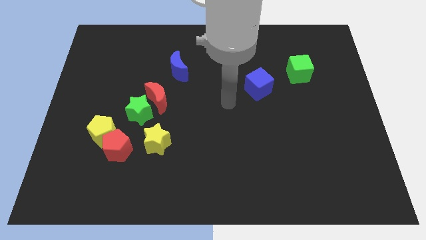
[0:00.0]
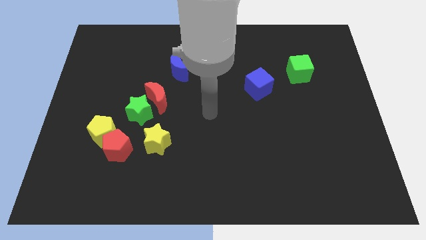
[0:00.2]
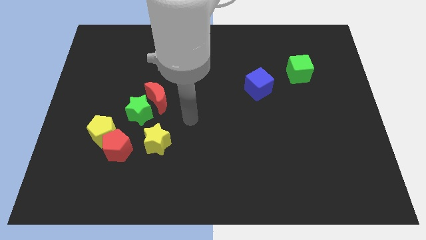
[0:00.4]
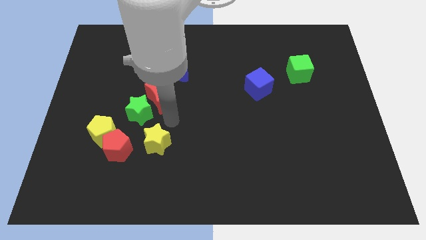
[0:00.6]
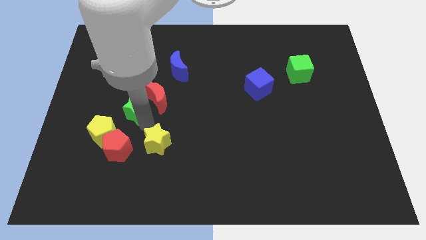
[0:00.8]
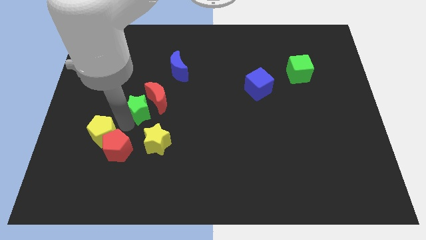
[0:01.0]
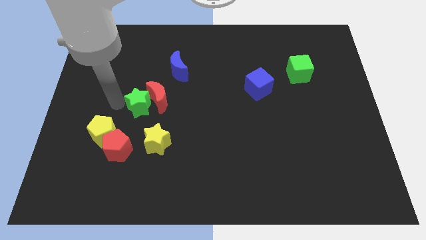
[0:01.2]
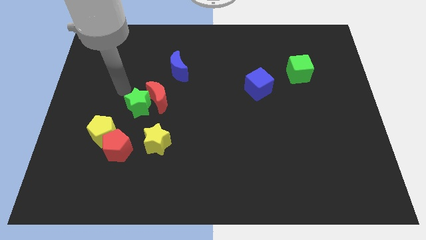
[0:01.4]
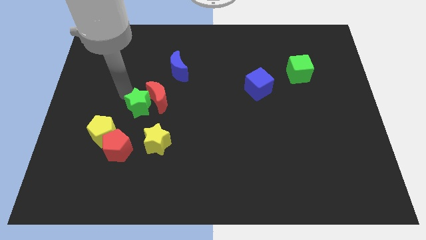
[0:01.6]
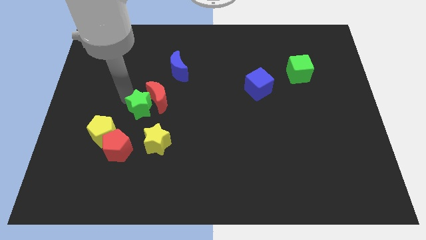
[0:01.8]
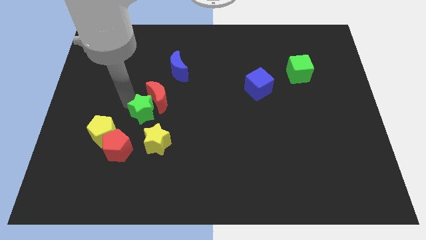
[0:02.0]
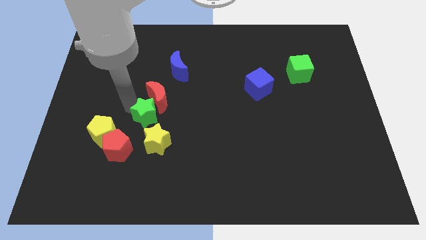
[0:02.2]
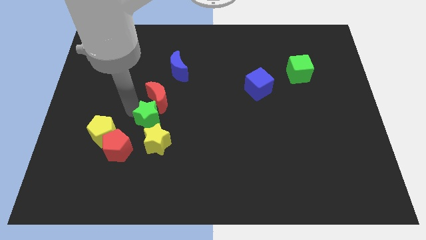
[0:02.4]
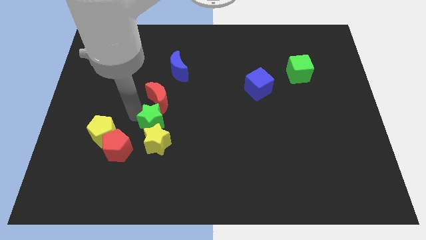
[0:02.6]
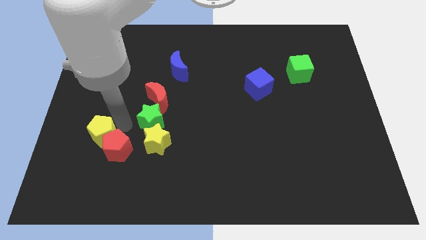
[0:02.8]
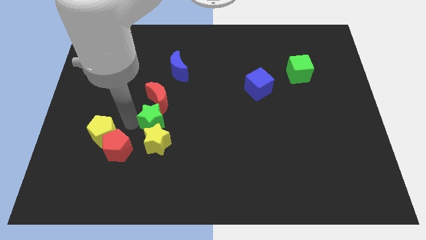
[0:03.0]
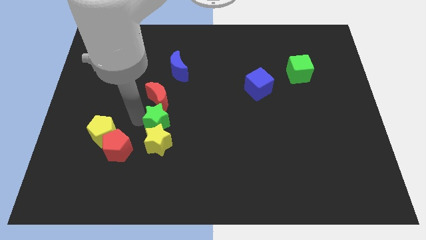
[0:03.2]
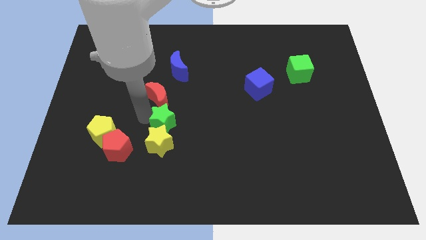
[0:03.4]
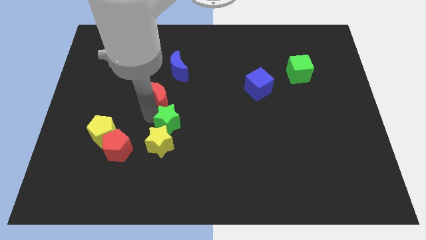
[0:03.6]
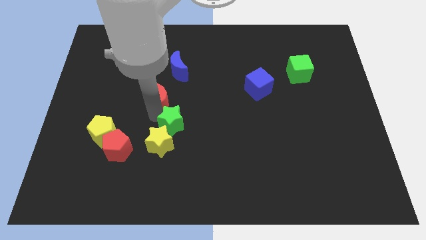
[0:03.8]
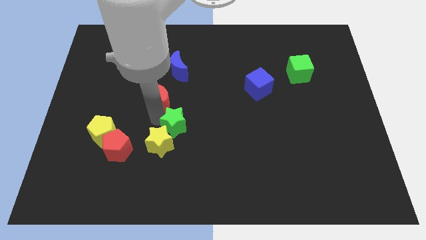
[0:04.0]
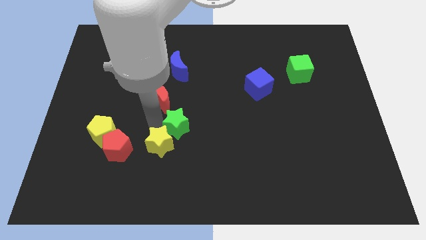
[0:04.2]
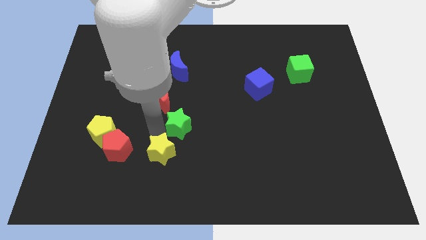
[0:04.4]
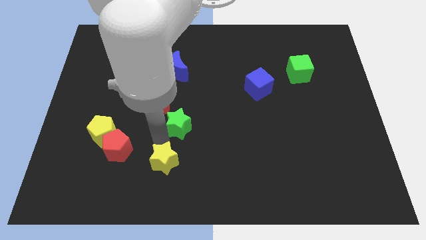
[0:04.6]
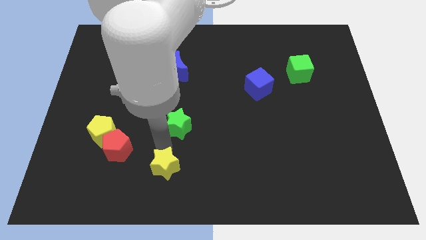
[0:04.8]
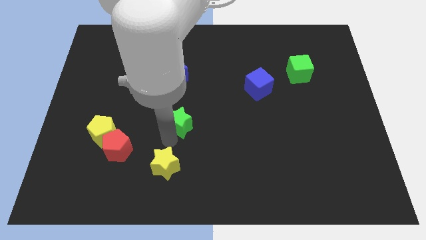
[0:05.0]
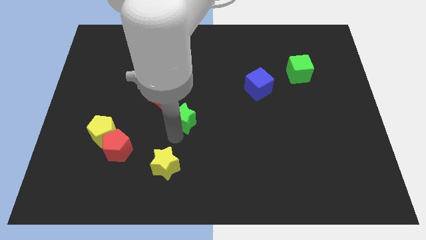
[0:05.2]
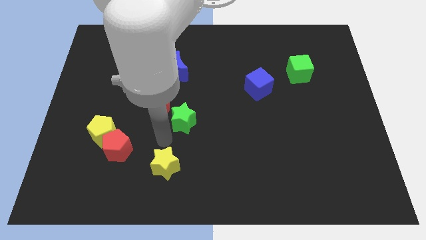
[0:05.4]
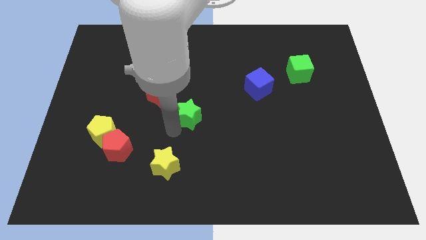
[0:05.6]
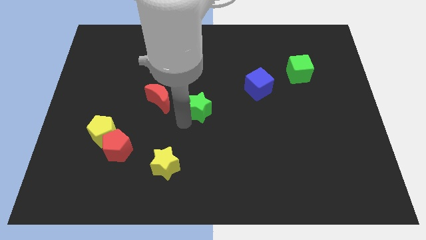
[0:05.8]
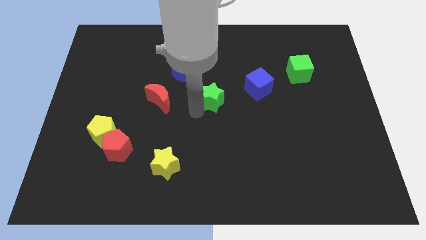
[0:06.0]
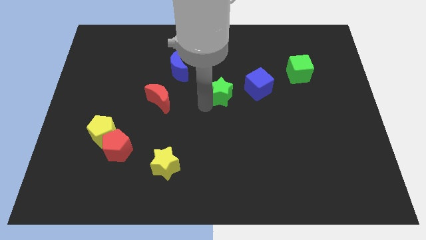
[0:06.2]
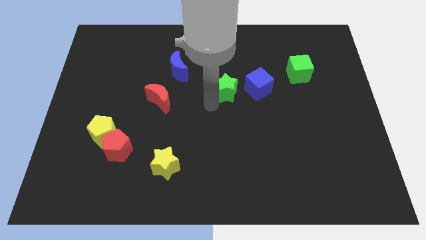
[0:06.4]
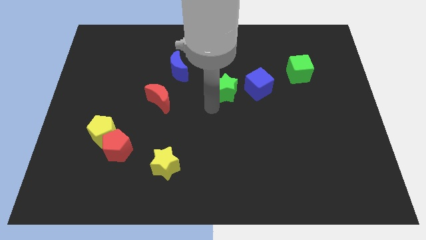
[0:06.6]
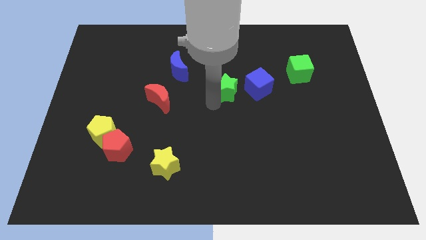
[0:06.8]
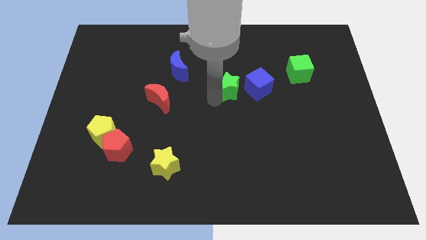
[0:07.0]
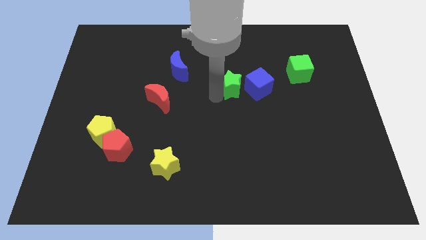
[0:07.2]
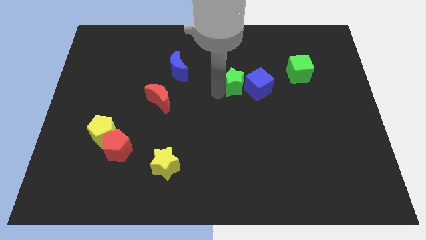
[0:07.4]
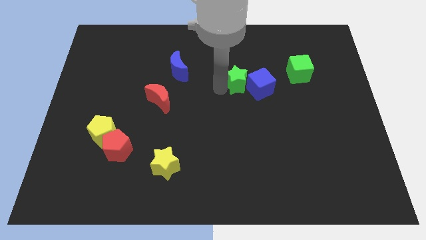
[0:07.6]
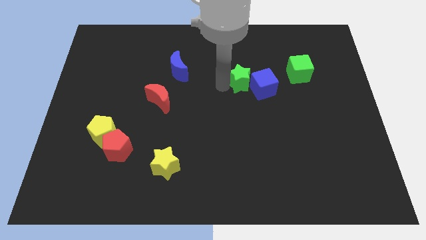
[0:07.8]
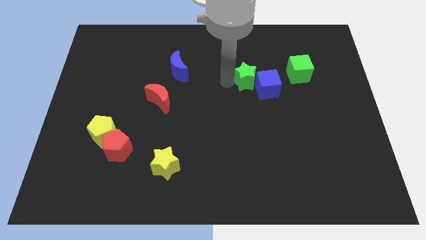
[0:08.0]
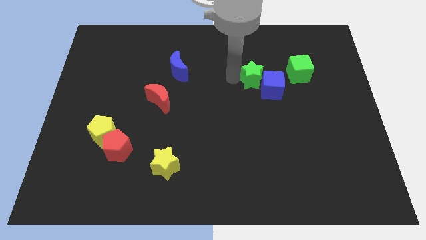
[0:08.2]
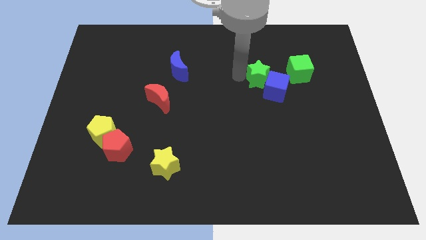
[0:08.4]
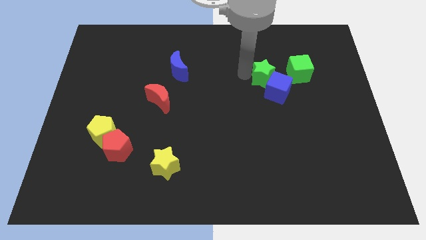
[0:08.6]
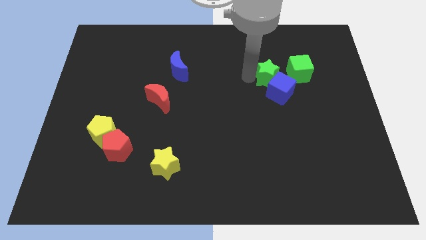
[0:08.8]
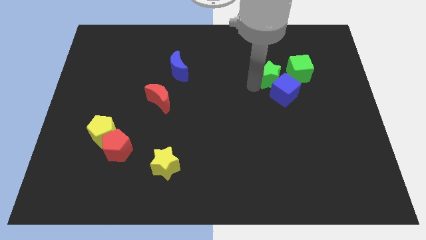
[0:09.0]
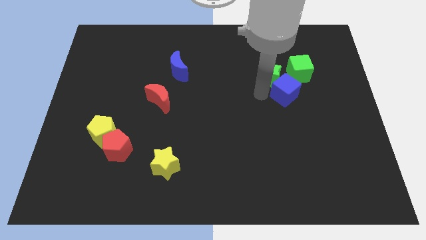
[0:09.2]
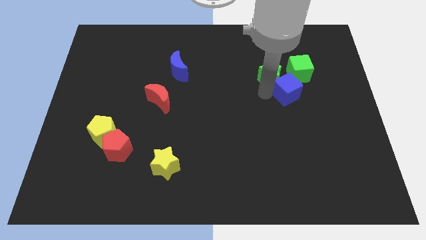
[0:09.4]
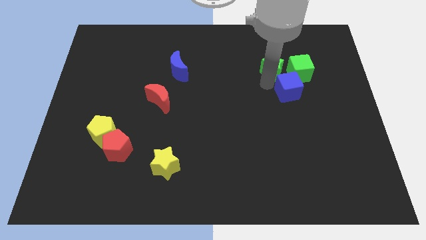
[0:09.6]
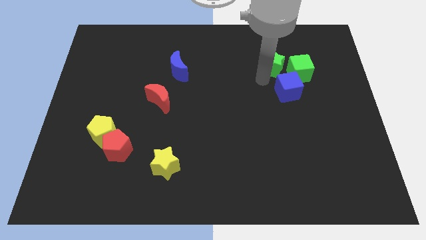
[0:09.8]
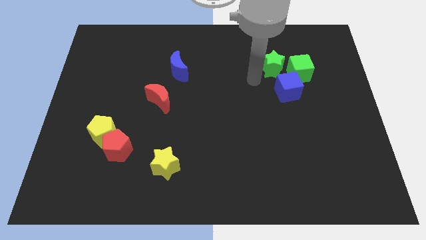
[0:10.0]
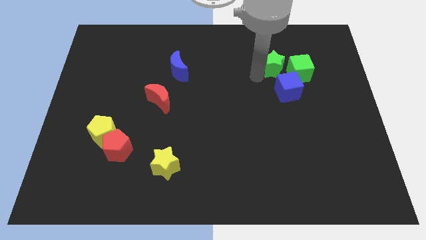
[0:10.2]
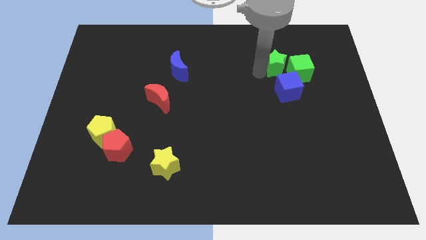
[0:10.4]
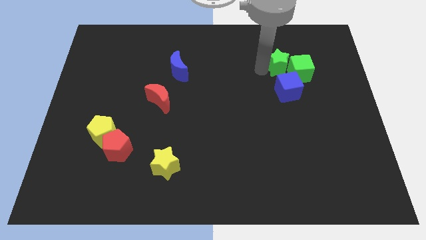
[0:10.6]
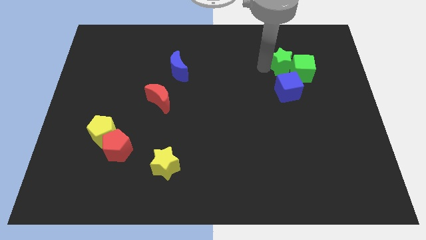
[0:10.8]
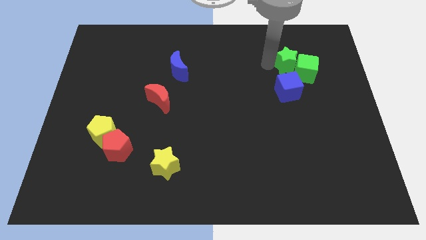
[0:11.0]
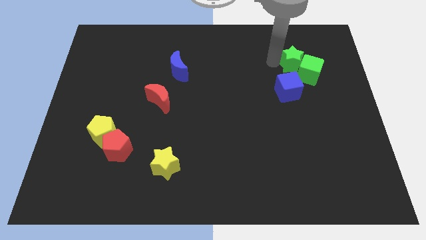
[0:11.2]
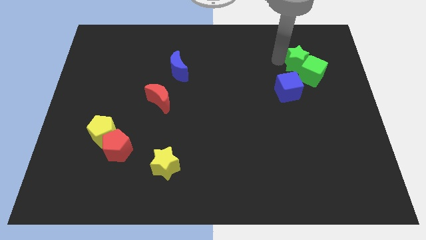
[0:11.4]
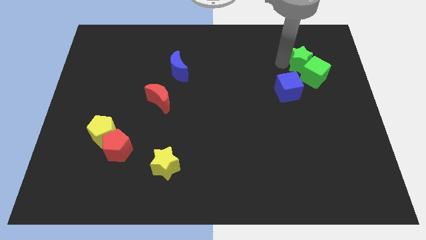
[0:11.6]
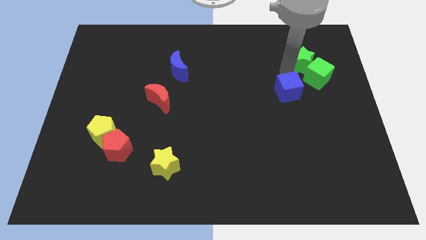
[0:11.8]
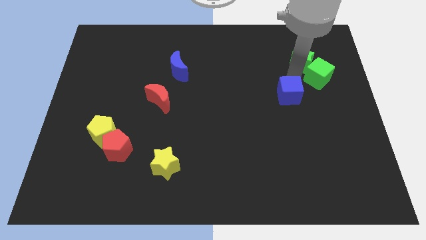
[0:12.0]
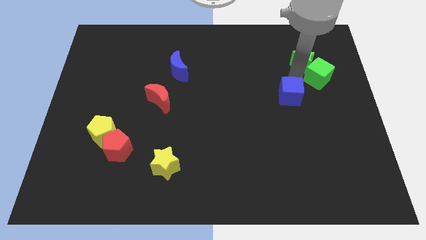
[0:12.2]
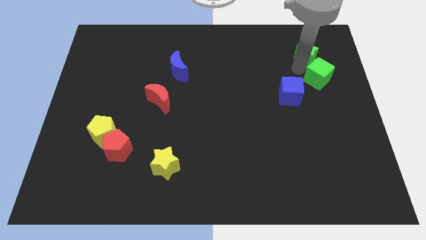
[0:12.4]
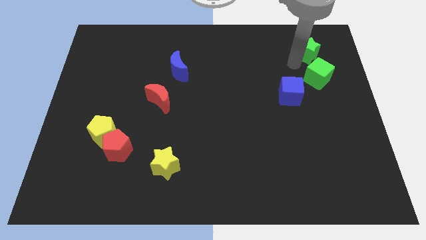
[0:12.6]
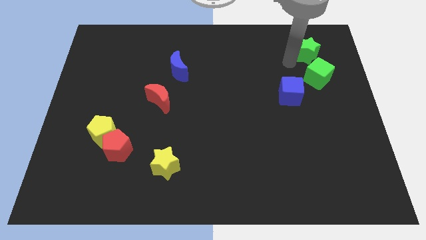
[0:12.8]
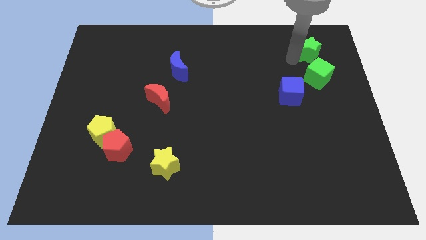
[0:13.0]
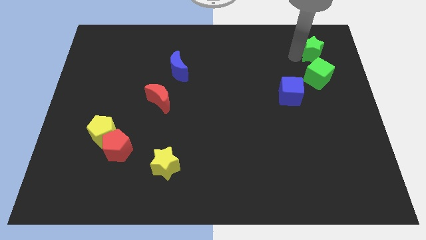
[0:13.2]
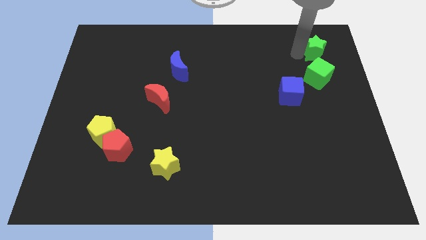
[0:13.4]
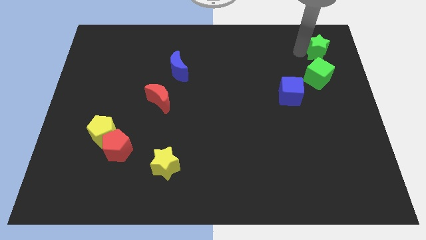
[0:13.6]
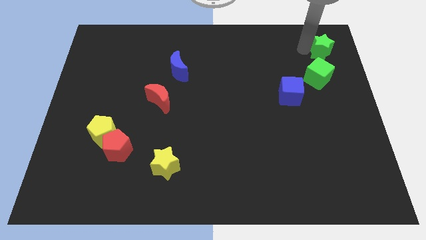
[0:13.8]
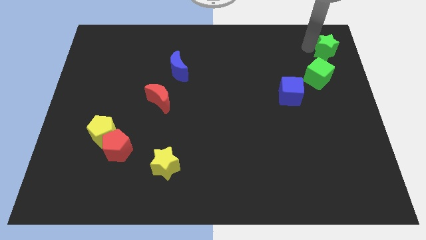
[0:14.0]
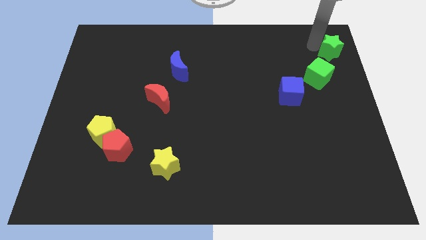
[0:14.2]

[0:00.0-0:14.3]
push the green star to the top right of the board
